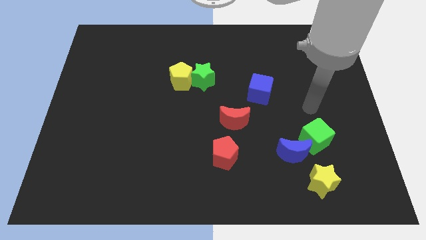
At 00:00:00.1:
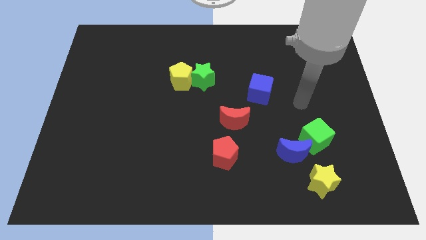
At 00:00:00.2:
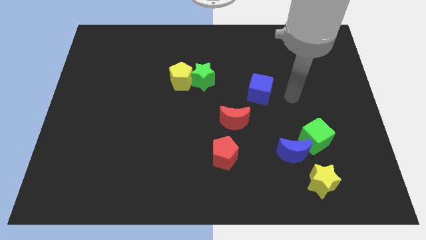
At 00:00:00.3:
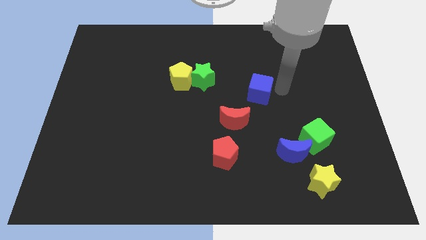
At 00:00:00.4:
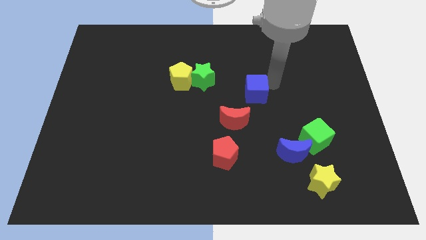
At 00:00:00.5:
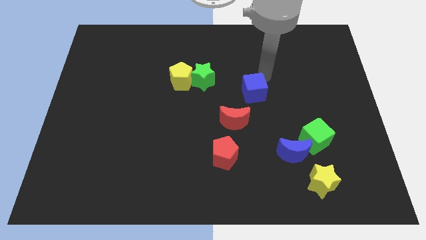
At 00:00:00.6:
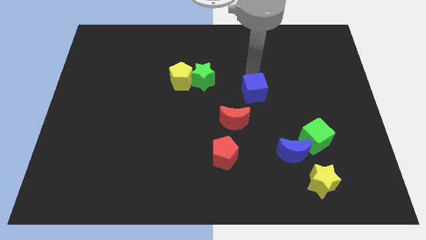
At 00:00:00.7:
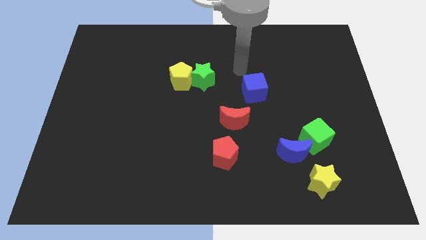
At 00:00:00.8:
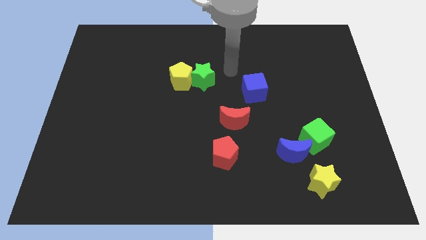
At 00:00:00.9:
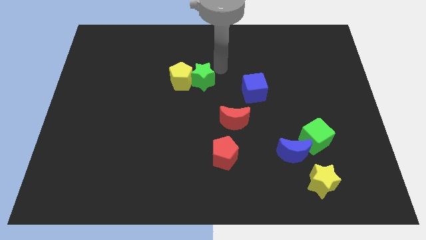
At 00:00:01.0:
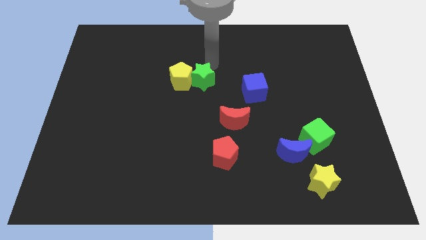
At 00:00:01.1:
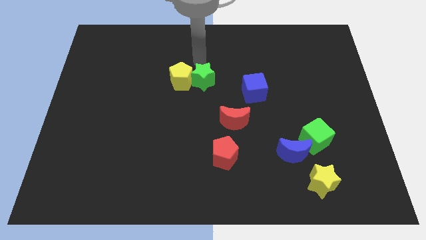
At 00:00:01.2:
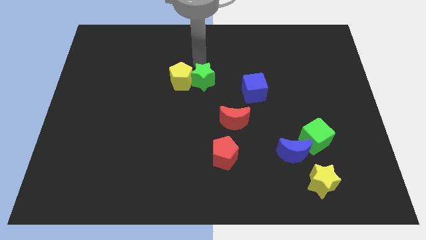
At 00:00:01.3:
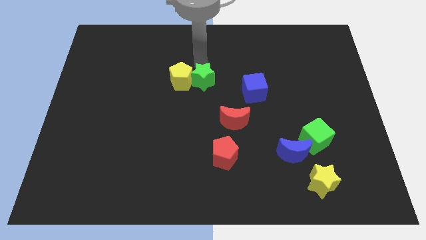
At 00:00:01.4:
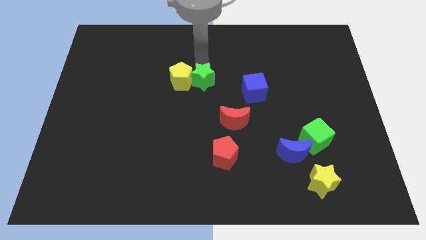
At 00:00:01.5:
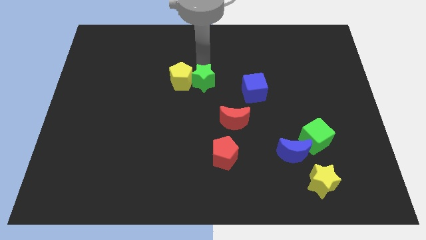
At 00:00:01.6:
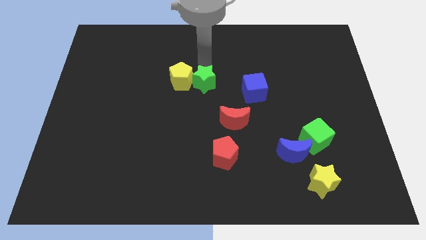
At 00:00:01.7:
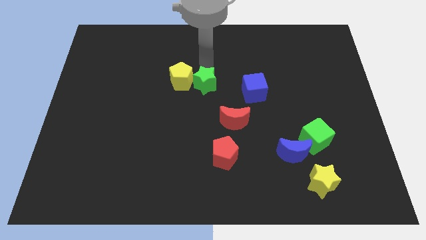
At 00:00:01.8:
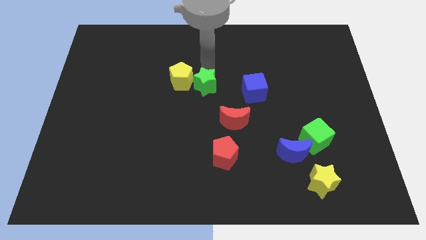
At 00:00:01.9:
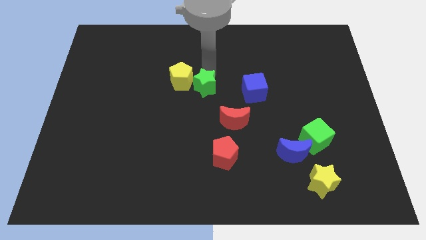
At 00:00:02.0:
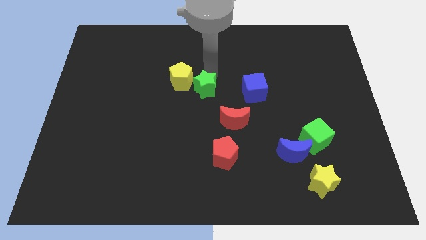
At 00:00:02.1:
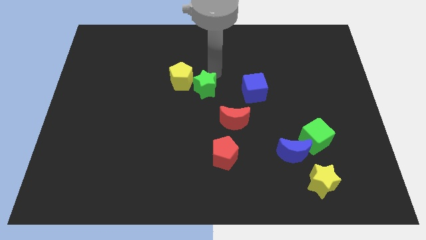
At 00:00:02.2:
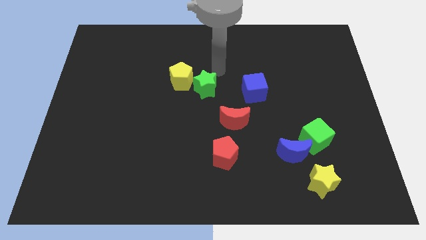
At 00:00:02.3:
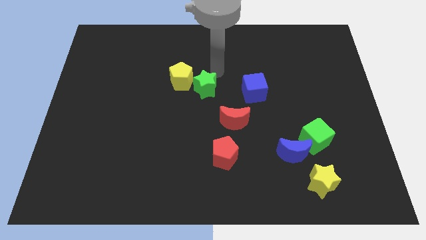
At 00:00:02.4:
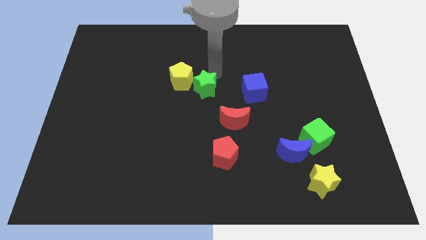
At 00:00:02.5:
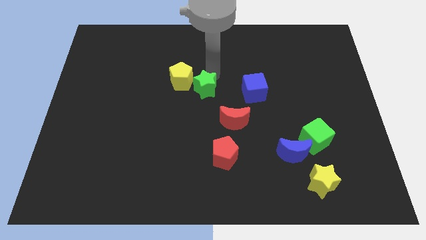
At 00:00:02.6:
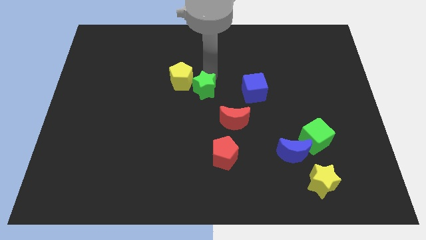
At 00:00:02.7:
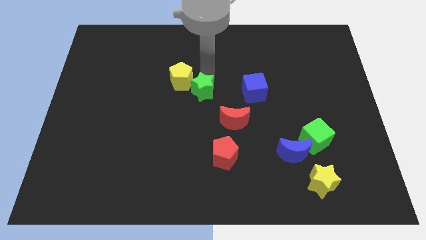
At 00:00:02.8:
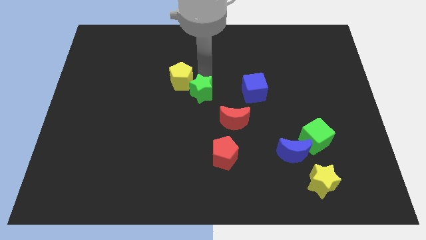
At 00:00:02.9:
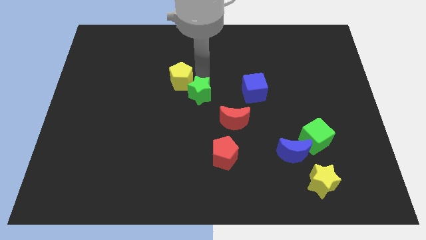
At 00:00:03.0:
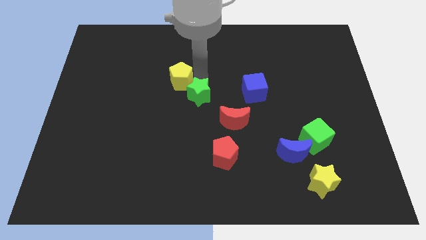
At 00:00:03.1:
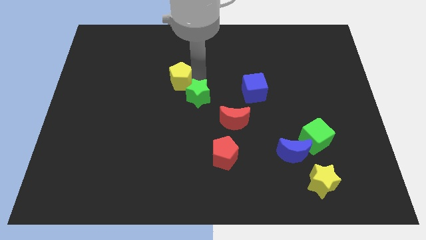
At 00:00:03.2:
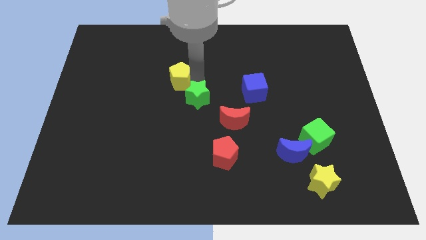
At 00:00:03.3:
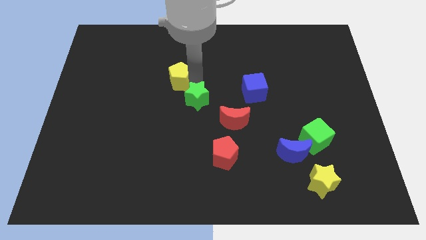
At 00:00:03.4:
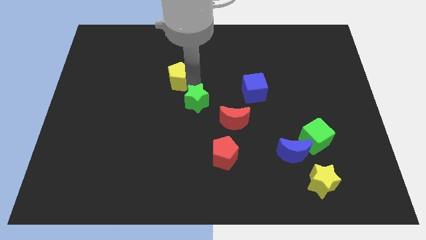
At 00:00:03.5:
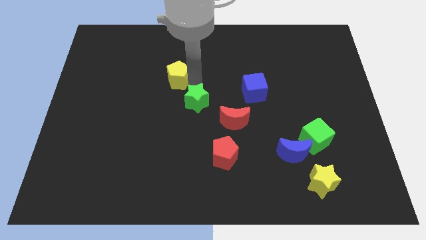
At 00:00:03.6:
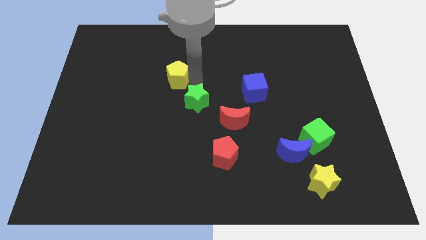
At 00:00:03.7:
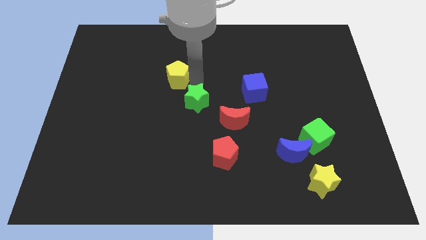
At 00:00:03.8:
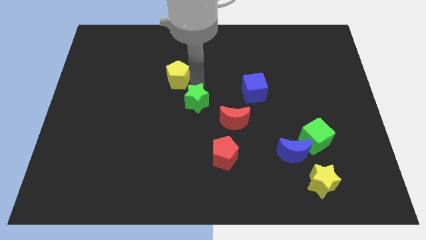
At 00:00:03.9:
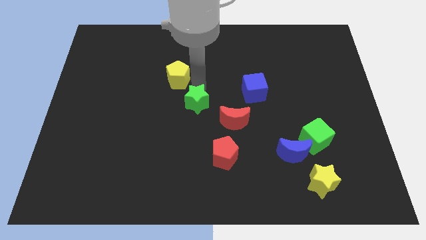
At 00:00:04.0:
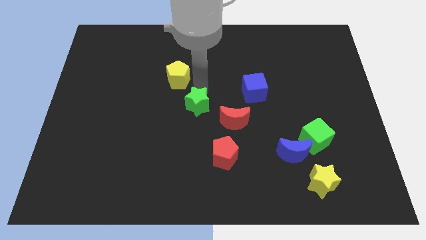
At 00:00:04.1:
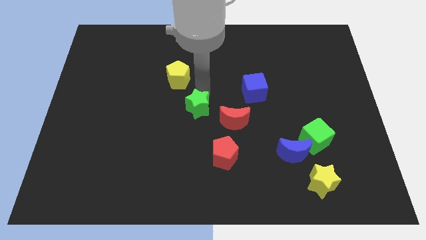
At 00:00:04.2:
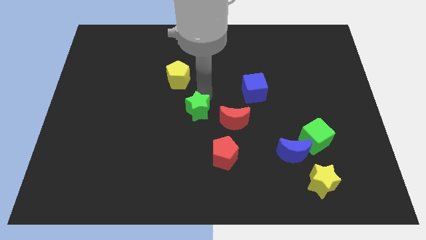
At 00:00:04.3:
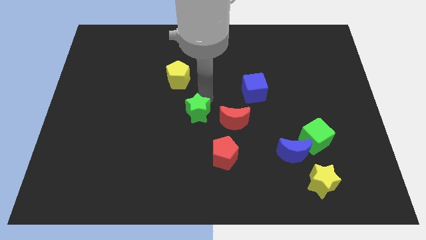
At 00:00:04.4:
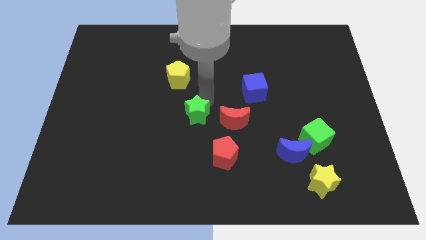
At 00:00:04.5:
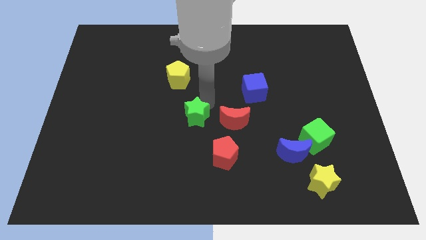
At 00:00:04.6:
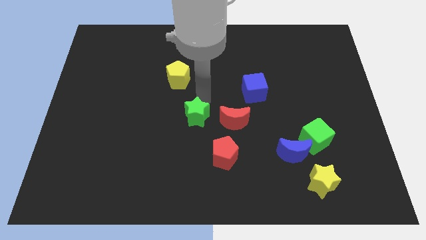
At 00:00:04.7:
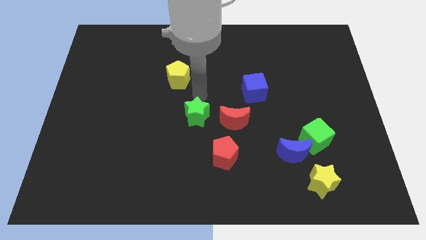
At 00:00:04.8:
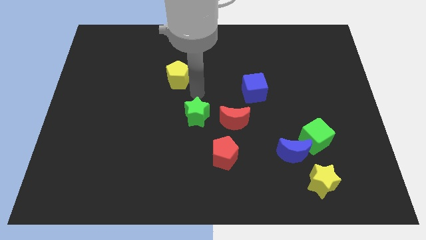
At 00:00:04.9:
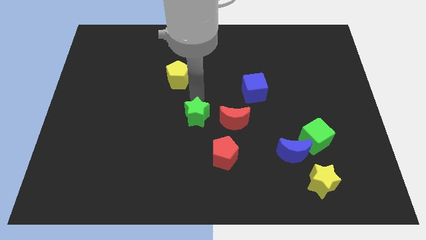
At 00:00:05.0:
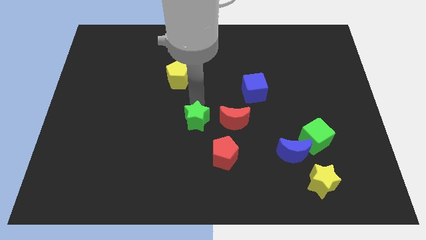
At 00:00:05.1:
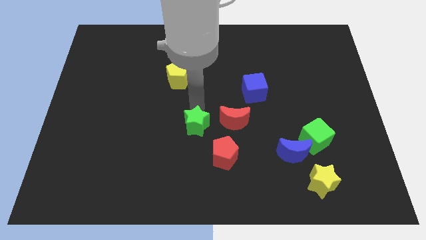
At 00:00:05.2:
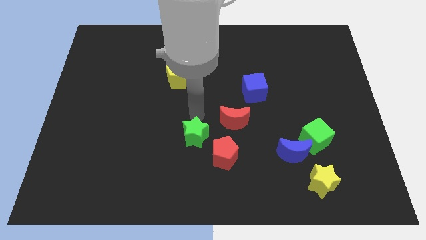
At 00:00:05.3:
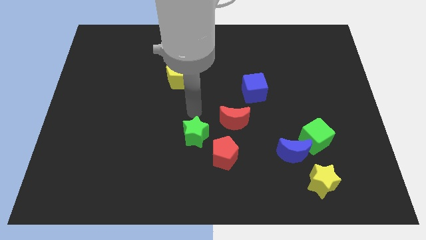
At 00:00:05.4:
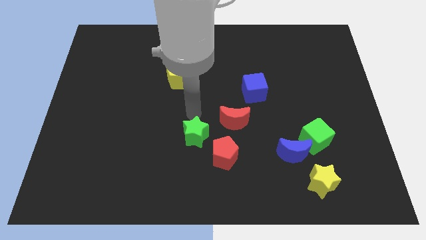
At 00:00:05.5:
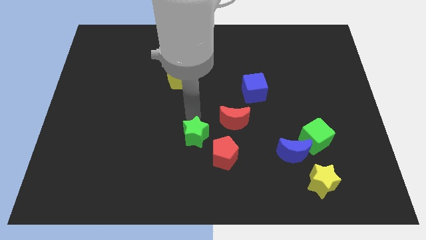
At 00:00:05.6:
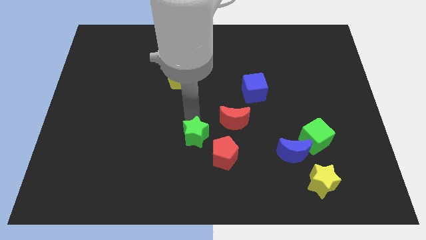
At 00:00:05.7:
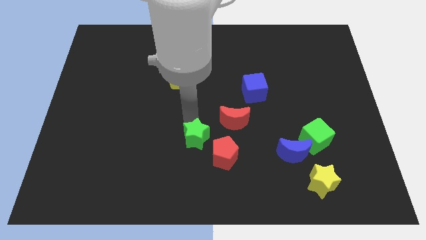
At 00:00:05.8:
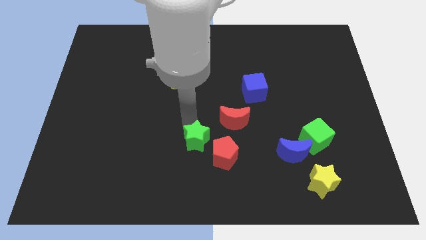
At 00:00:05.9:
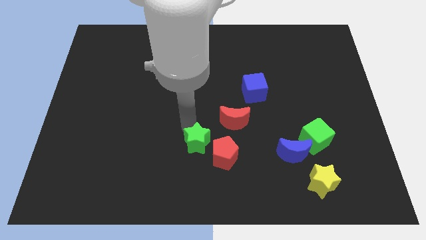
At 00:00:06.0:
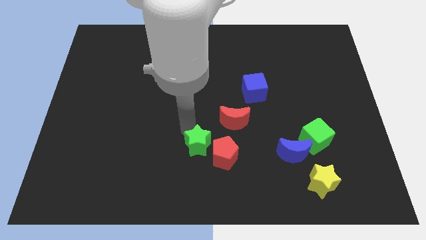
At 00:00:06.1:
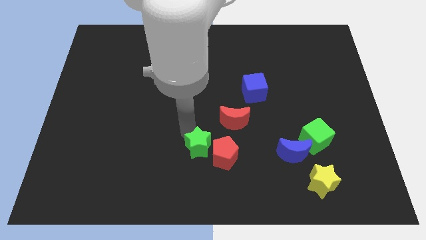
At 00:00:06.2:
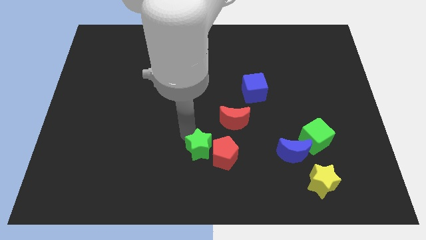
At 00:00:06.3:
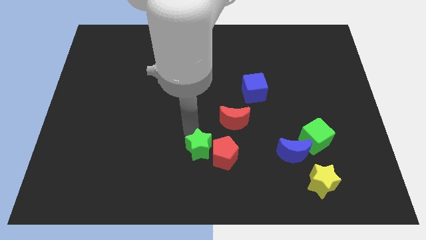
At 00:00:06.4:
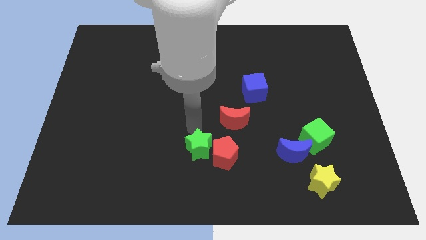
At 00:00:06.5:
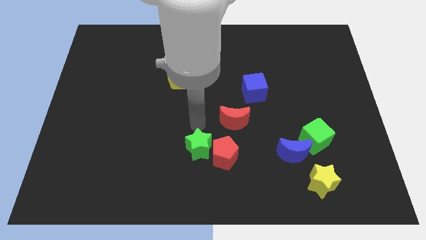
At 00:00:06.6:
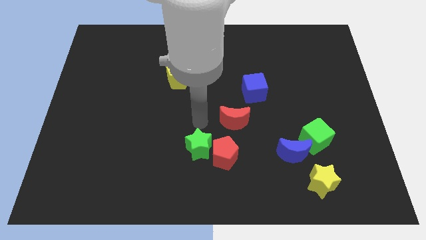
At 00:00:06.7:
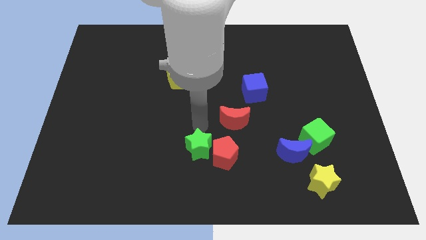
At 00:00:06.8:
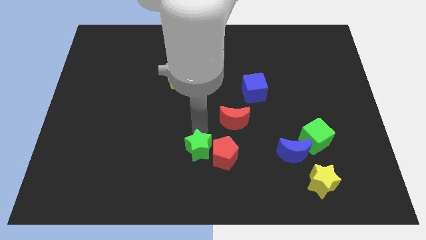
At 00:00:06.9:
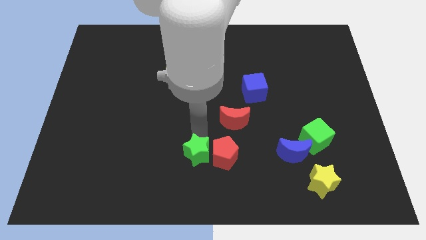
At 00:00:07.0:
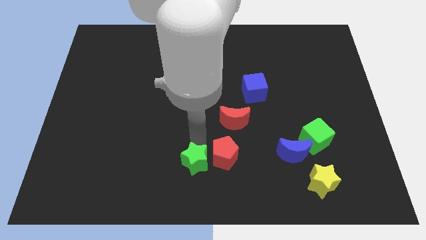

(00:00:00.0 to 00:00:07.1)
move the green star to the bottom side
